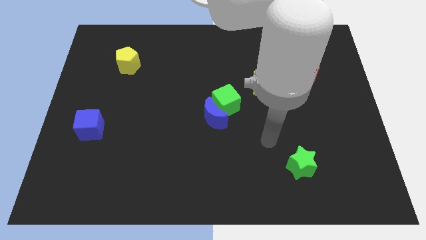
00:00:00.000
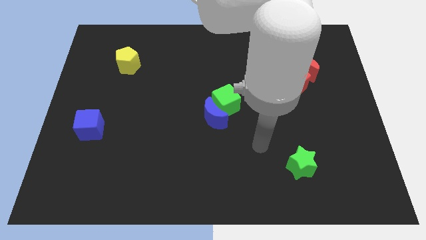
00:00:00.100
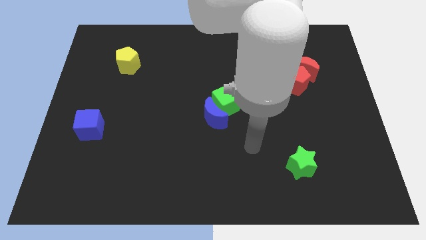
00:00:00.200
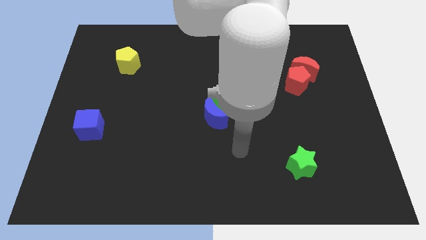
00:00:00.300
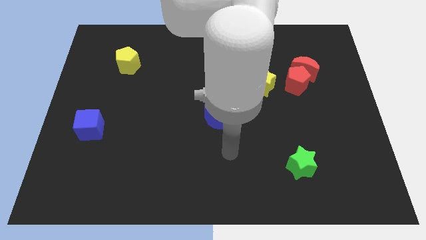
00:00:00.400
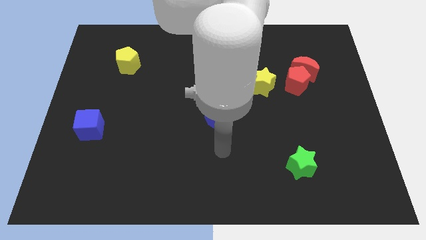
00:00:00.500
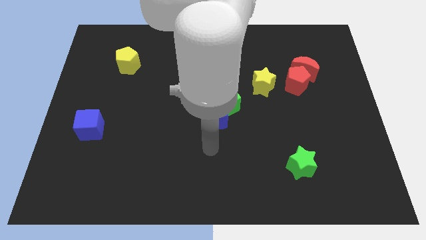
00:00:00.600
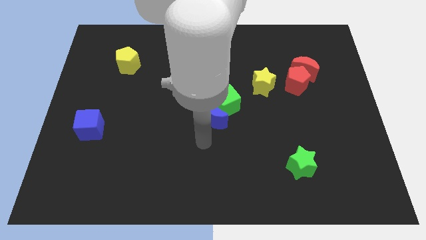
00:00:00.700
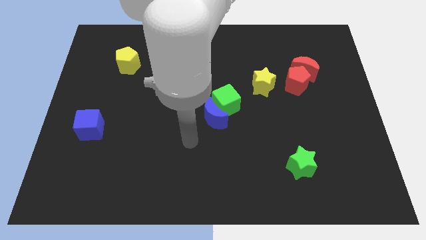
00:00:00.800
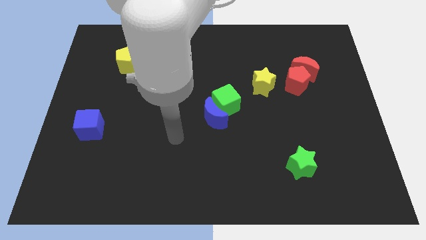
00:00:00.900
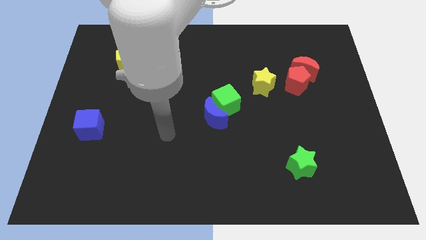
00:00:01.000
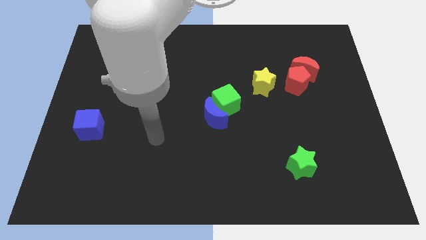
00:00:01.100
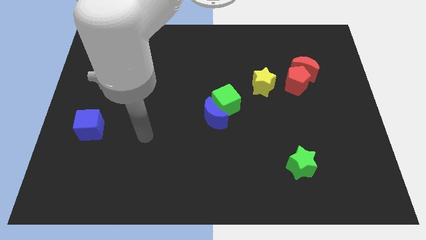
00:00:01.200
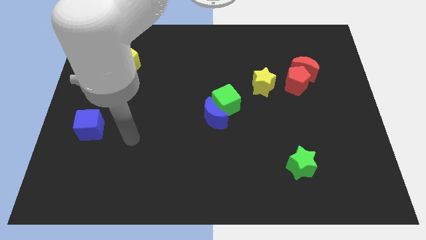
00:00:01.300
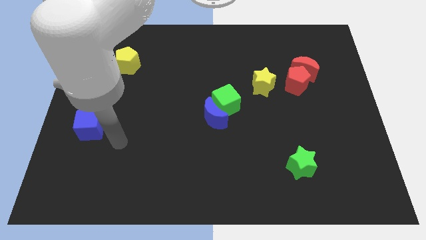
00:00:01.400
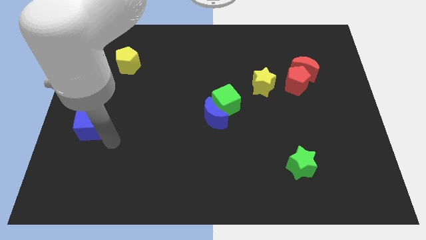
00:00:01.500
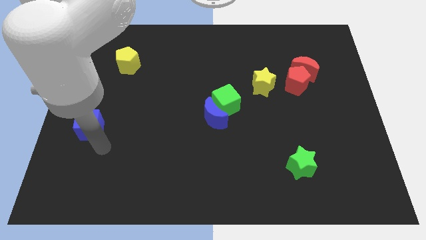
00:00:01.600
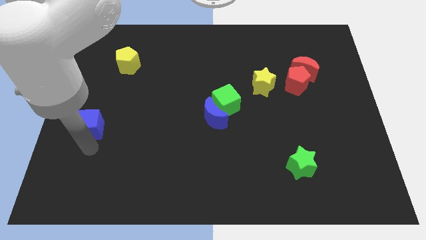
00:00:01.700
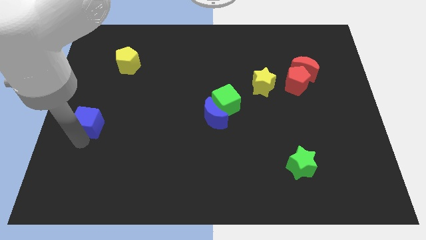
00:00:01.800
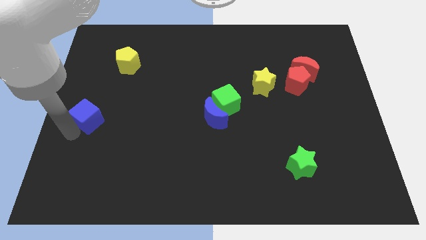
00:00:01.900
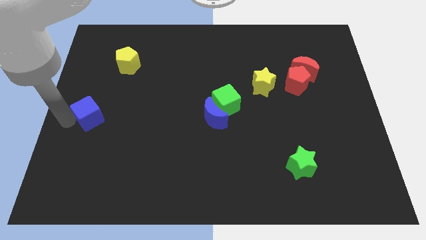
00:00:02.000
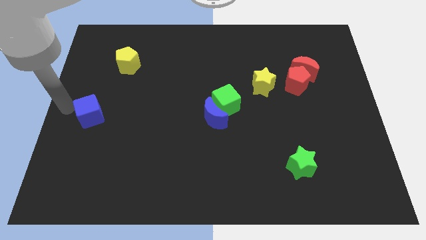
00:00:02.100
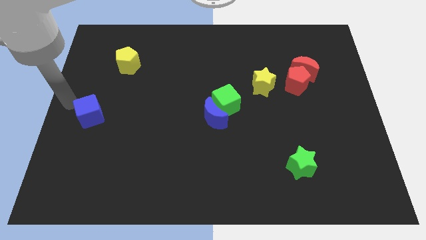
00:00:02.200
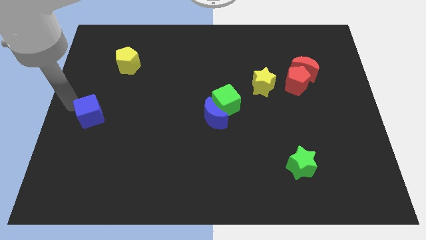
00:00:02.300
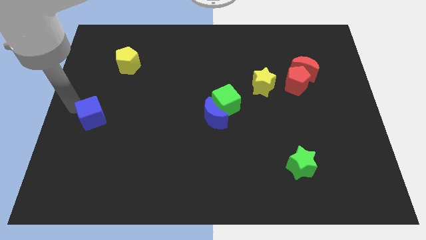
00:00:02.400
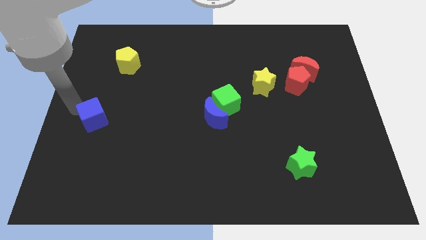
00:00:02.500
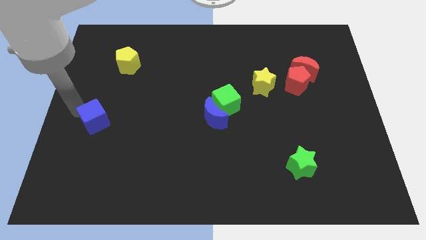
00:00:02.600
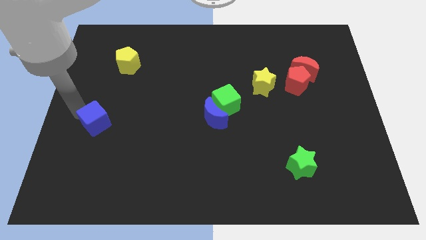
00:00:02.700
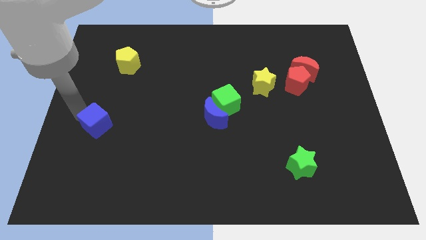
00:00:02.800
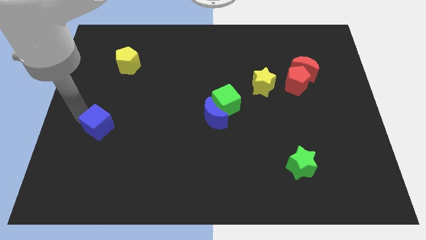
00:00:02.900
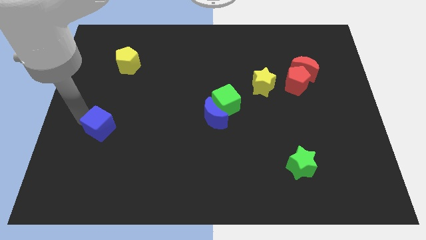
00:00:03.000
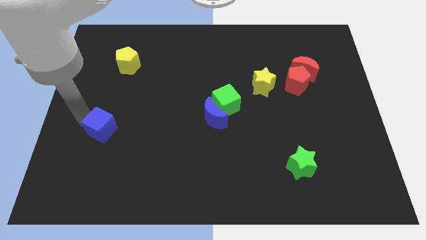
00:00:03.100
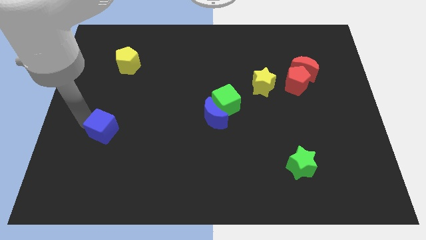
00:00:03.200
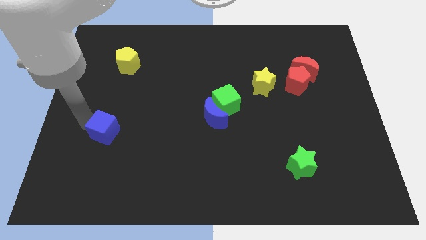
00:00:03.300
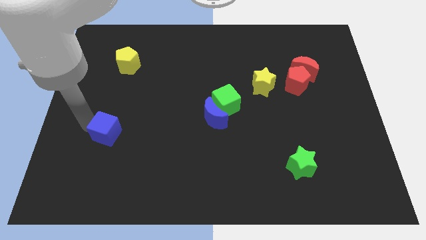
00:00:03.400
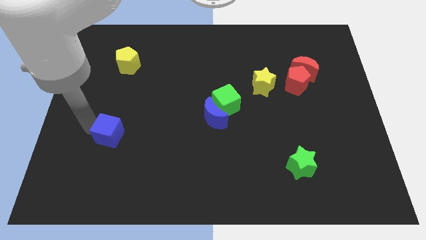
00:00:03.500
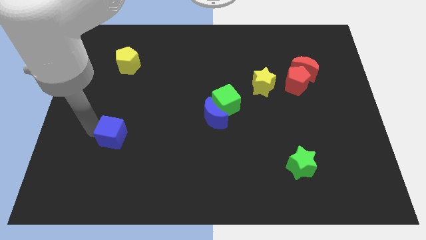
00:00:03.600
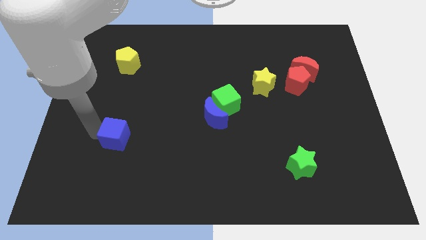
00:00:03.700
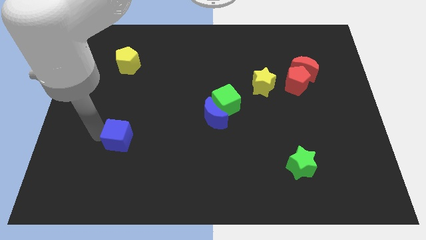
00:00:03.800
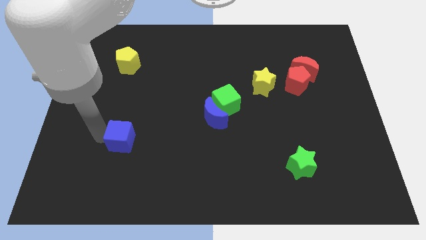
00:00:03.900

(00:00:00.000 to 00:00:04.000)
slide the blue cube to the right a bit

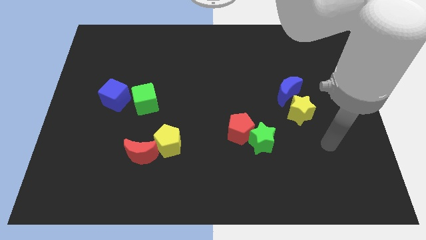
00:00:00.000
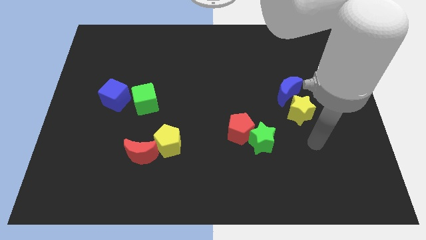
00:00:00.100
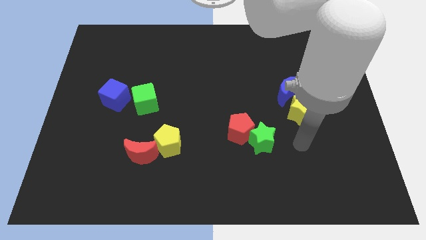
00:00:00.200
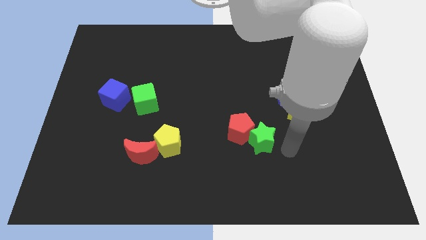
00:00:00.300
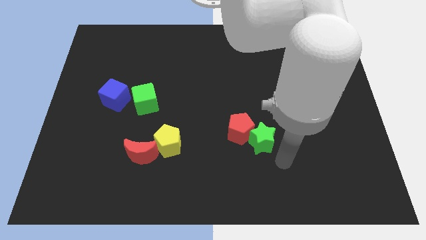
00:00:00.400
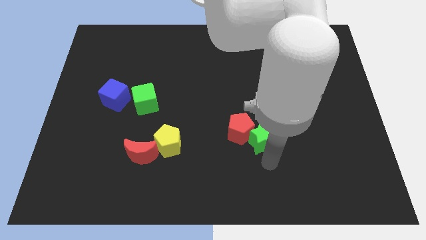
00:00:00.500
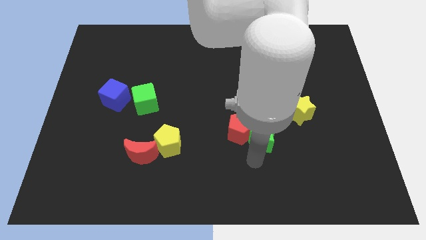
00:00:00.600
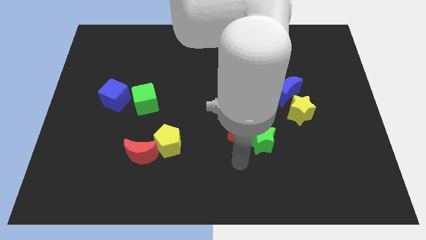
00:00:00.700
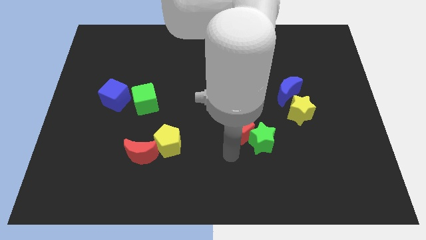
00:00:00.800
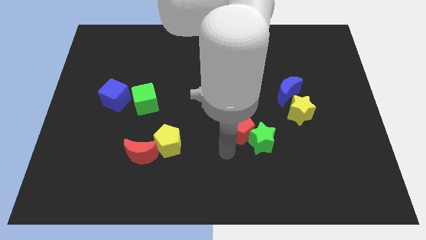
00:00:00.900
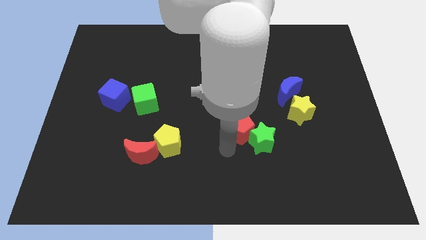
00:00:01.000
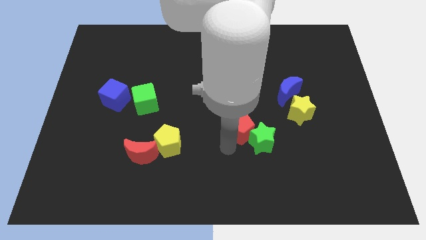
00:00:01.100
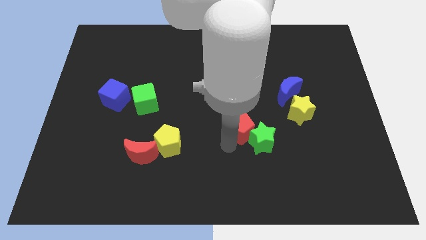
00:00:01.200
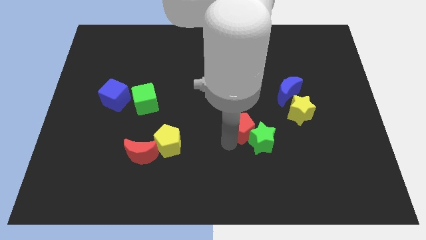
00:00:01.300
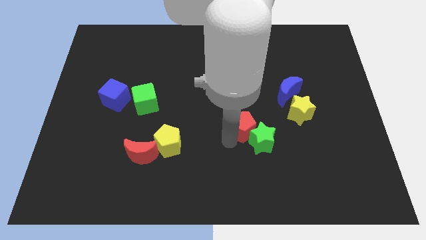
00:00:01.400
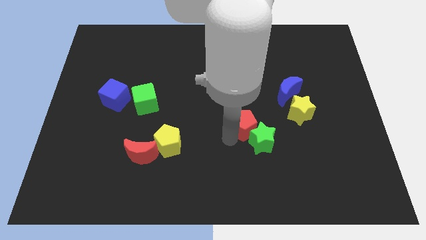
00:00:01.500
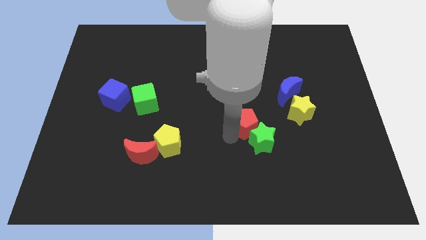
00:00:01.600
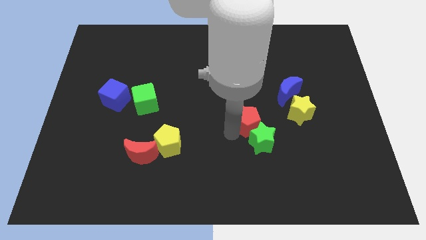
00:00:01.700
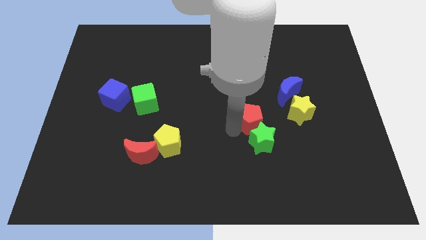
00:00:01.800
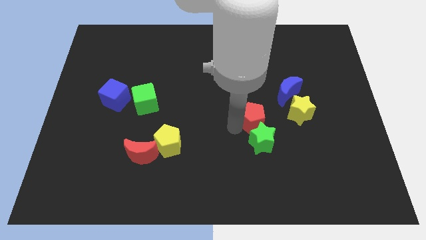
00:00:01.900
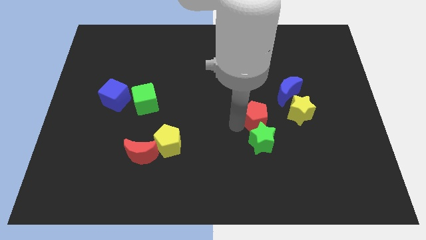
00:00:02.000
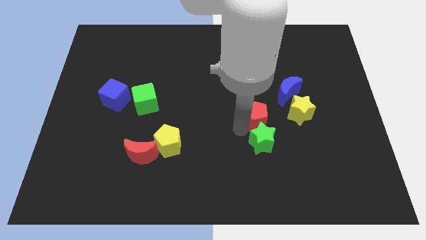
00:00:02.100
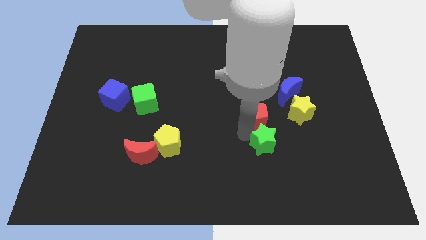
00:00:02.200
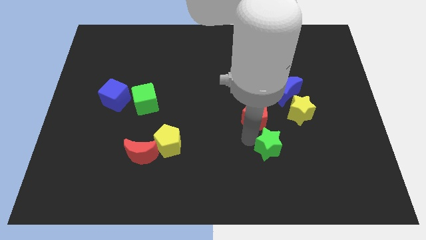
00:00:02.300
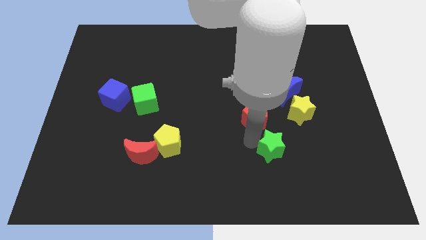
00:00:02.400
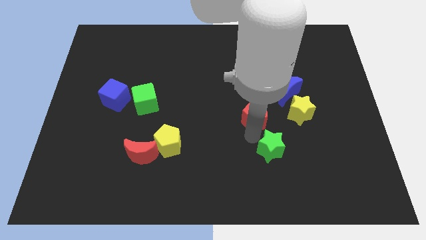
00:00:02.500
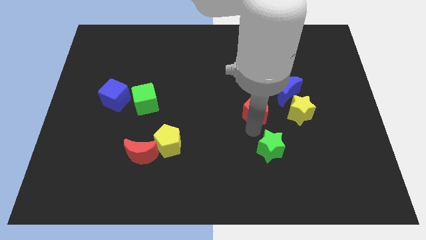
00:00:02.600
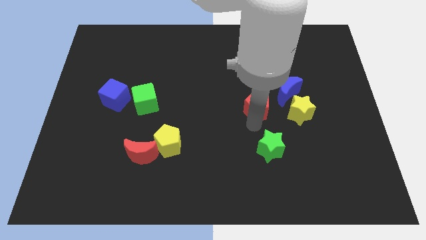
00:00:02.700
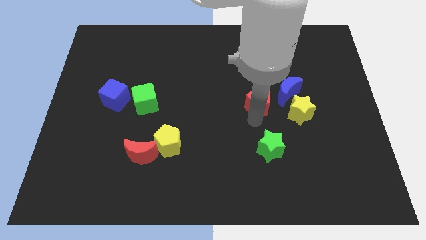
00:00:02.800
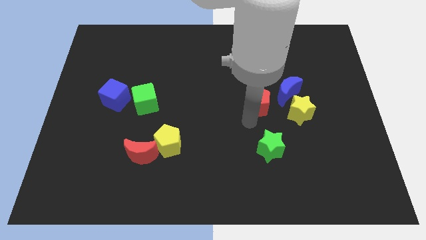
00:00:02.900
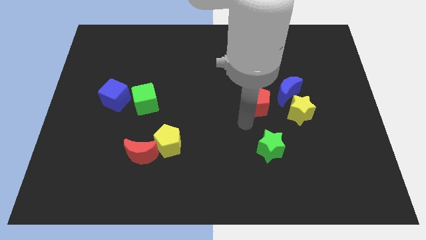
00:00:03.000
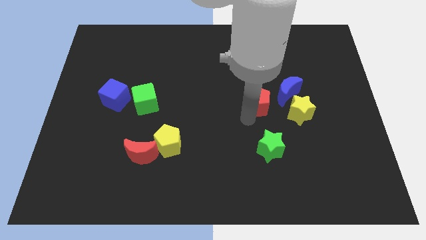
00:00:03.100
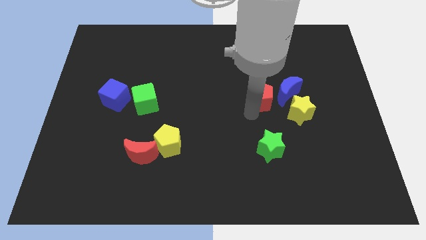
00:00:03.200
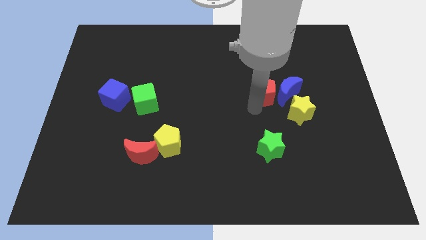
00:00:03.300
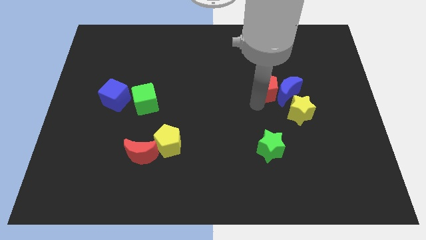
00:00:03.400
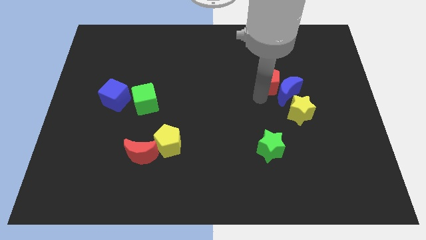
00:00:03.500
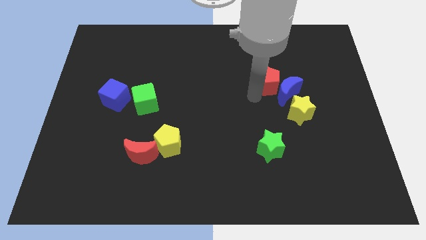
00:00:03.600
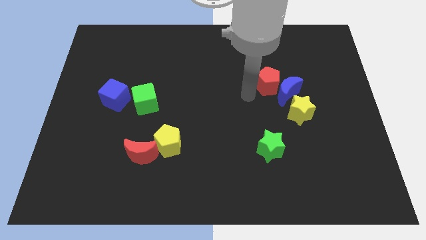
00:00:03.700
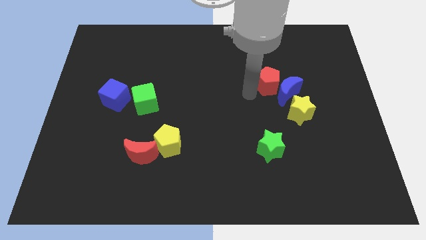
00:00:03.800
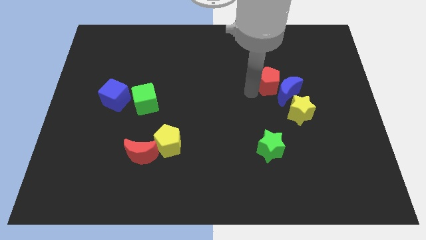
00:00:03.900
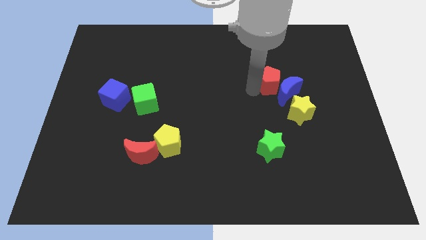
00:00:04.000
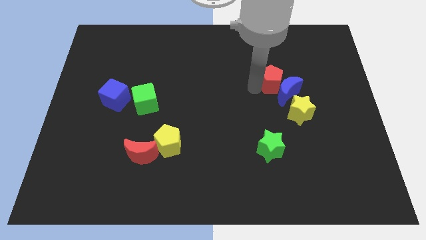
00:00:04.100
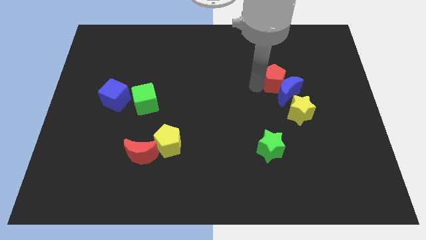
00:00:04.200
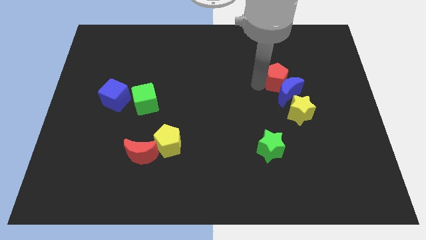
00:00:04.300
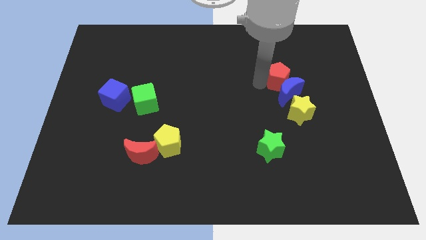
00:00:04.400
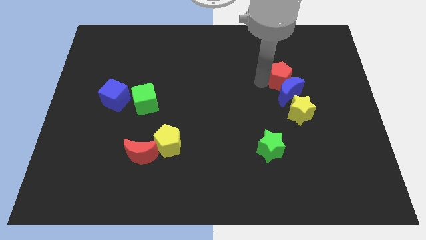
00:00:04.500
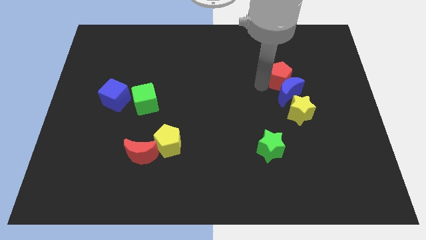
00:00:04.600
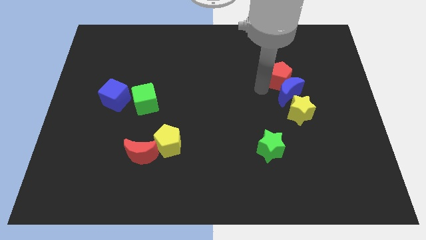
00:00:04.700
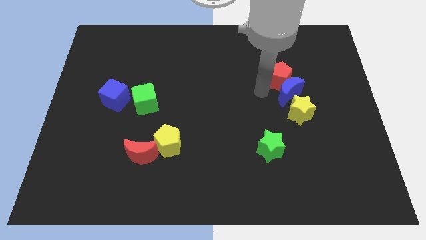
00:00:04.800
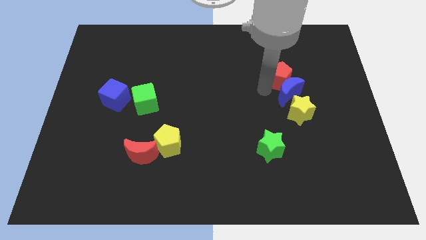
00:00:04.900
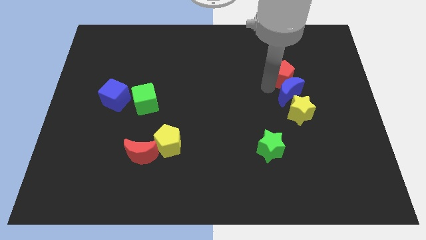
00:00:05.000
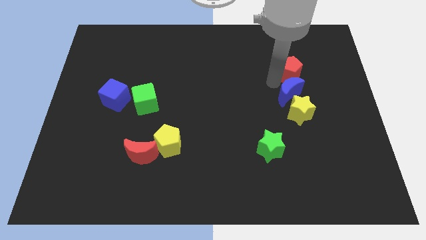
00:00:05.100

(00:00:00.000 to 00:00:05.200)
push the red pentagon up and then to the right
